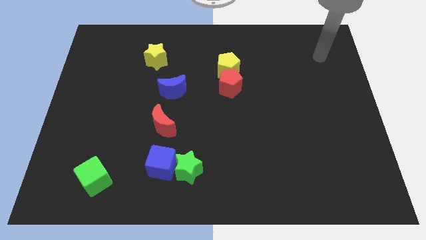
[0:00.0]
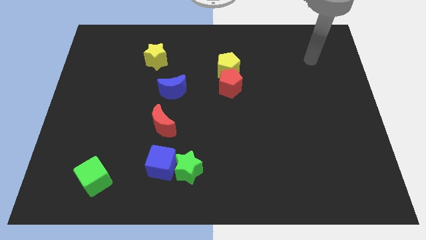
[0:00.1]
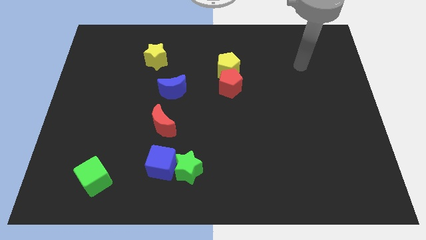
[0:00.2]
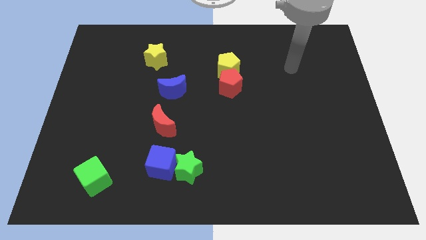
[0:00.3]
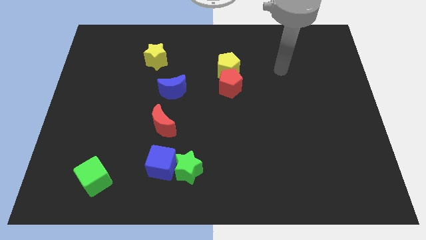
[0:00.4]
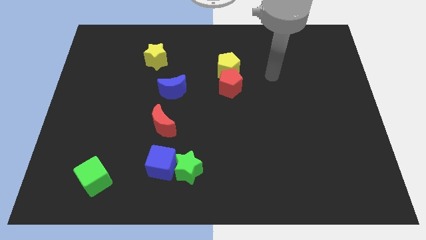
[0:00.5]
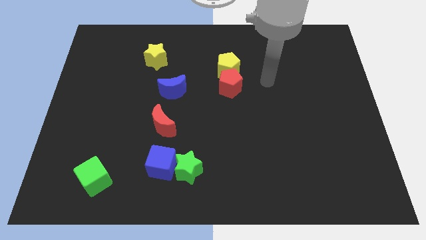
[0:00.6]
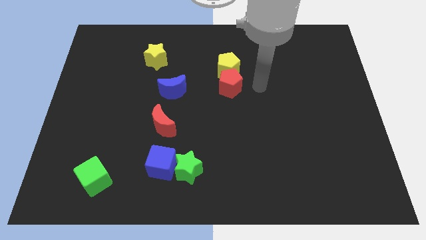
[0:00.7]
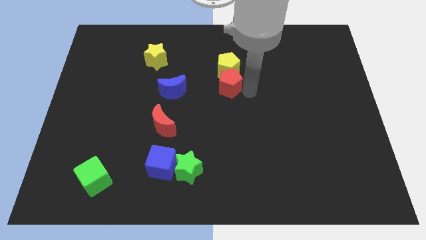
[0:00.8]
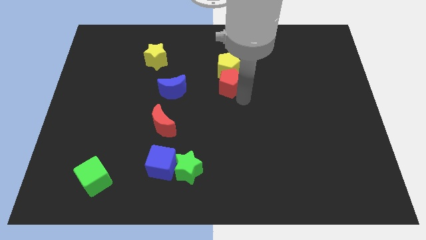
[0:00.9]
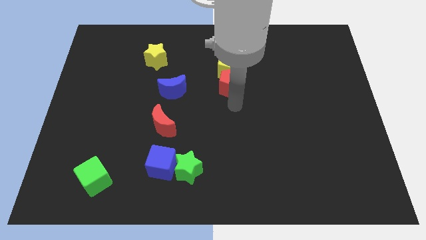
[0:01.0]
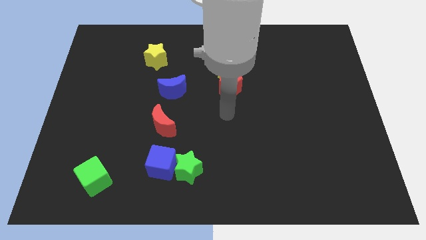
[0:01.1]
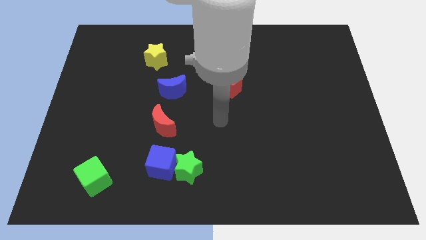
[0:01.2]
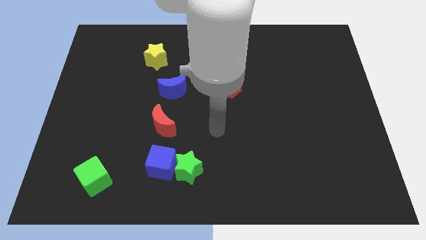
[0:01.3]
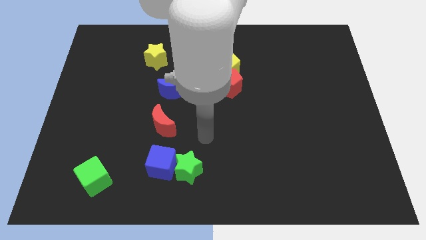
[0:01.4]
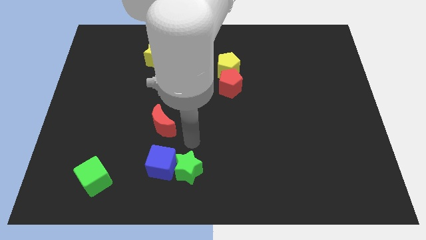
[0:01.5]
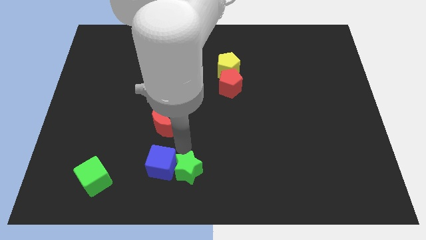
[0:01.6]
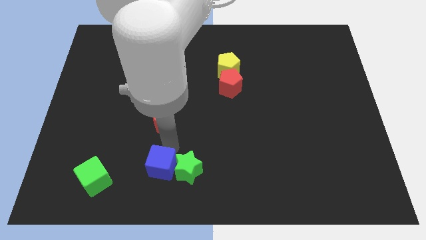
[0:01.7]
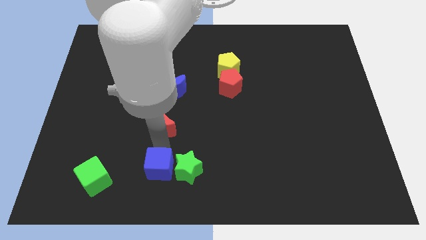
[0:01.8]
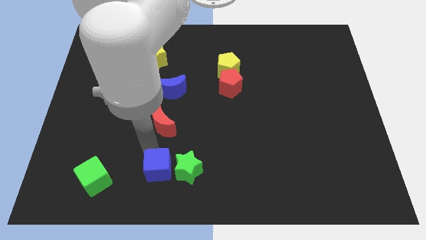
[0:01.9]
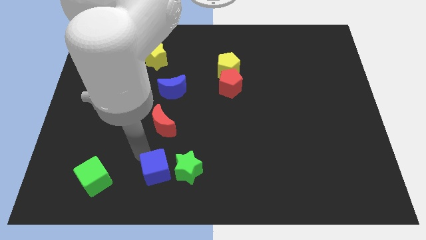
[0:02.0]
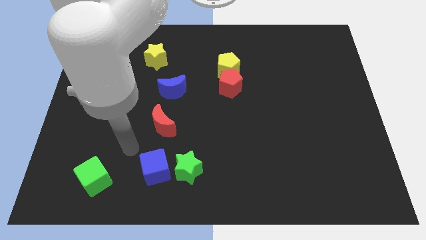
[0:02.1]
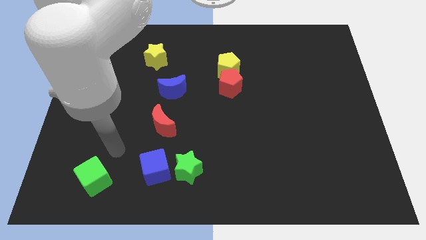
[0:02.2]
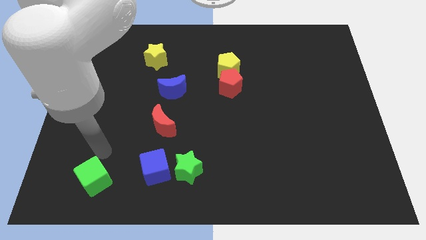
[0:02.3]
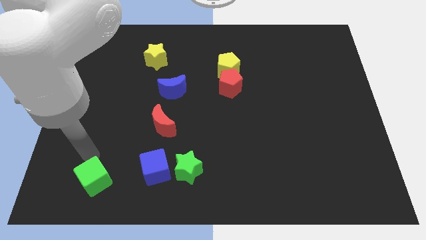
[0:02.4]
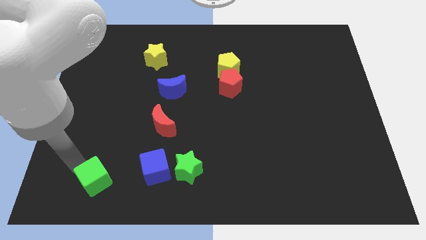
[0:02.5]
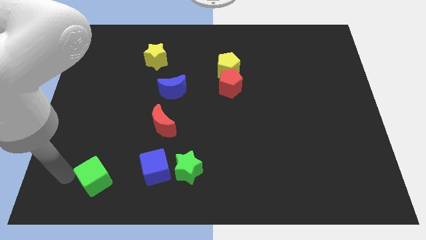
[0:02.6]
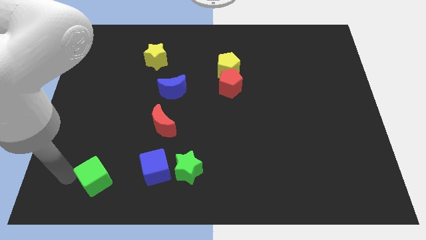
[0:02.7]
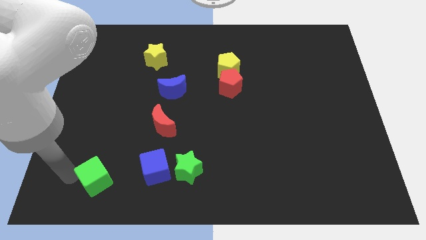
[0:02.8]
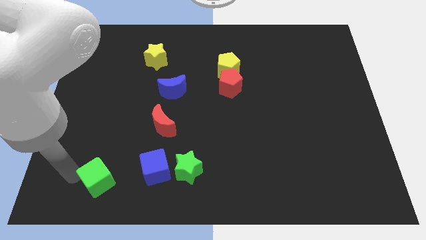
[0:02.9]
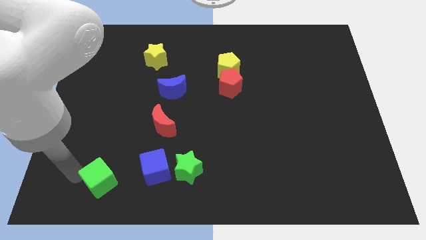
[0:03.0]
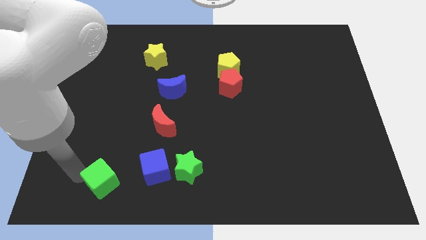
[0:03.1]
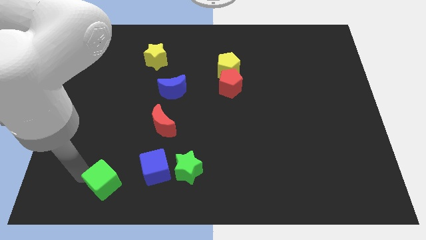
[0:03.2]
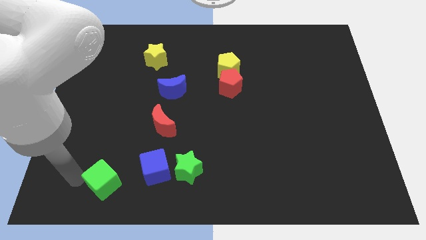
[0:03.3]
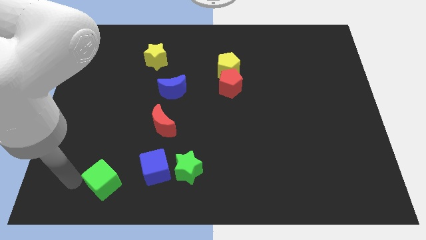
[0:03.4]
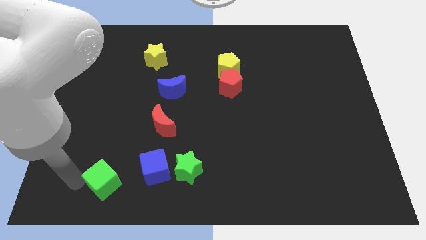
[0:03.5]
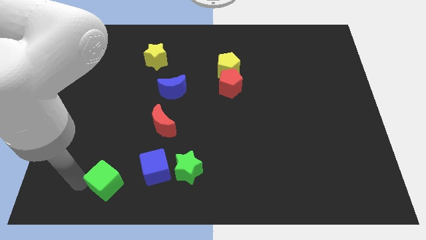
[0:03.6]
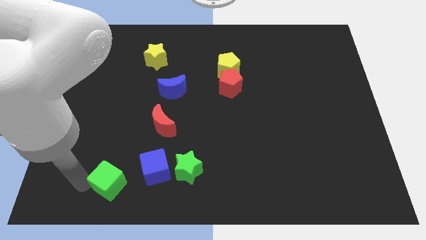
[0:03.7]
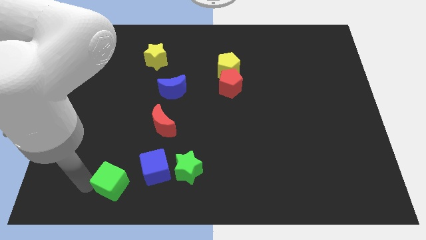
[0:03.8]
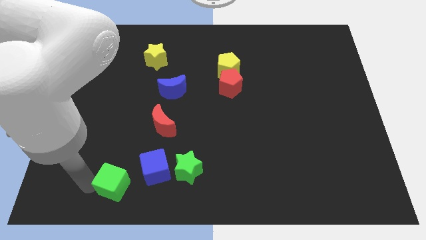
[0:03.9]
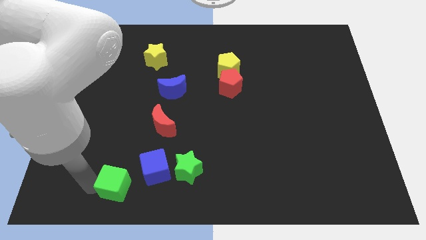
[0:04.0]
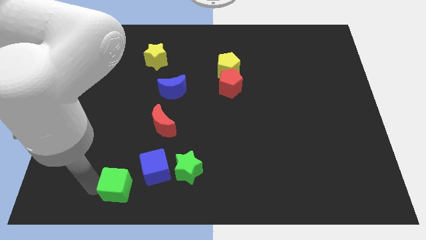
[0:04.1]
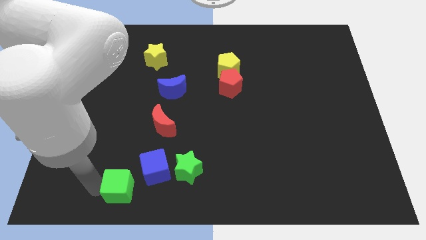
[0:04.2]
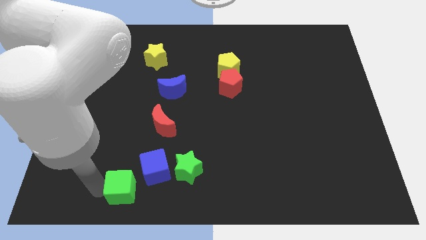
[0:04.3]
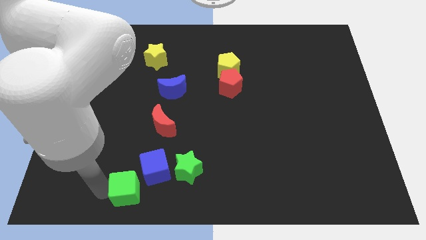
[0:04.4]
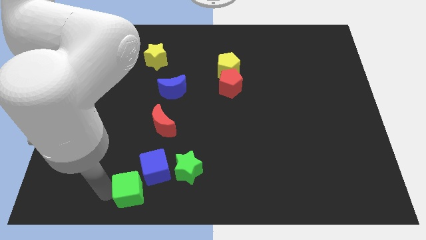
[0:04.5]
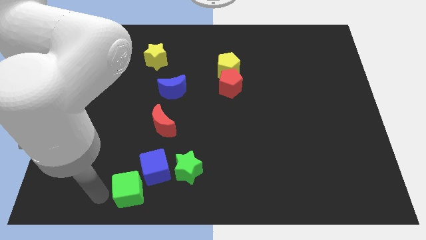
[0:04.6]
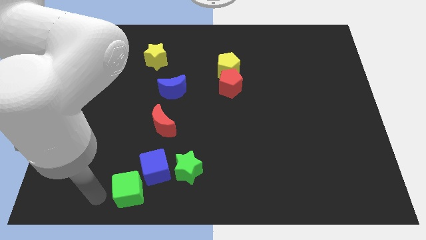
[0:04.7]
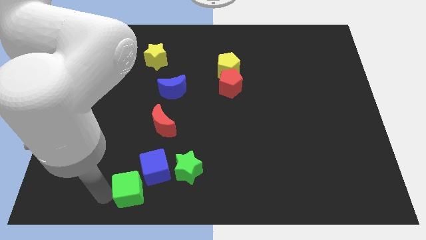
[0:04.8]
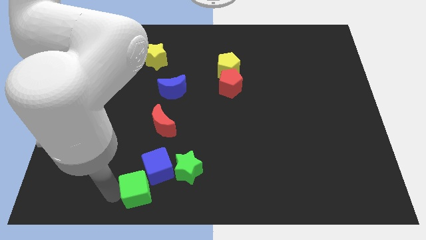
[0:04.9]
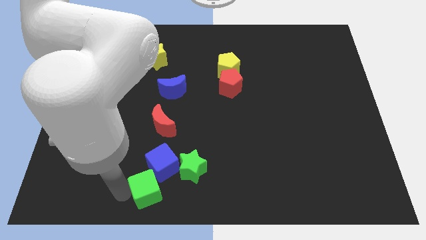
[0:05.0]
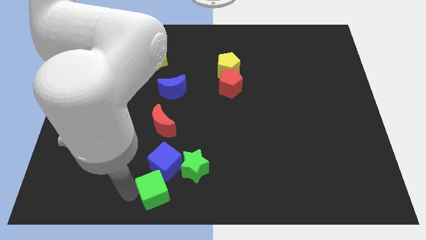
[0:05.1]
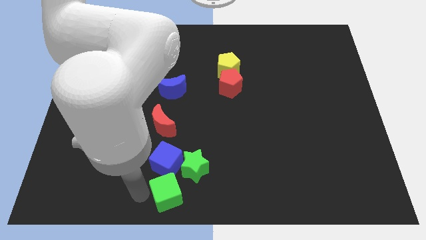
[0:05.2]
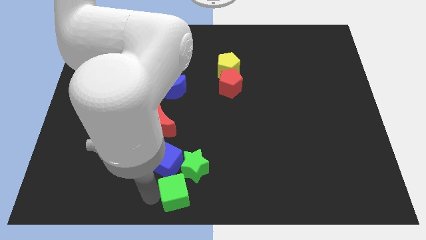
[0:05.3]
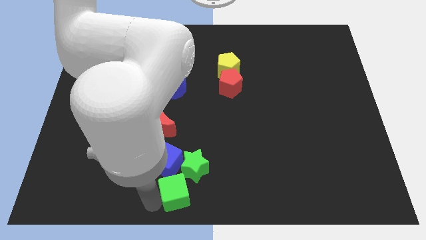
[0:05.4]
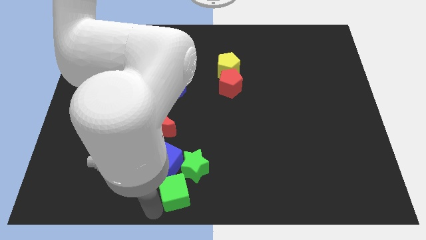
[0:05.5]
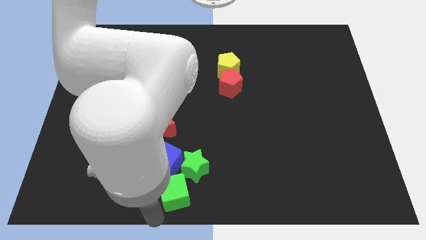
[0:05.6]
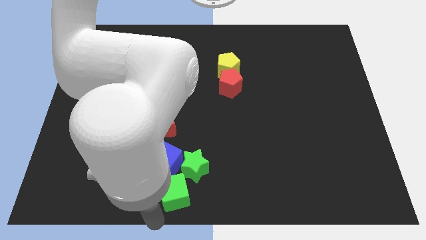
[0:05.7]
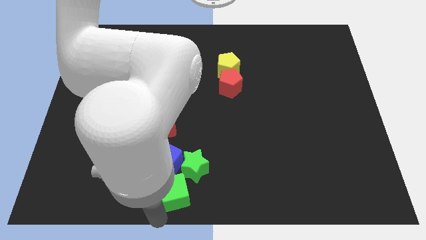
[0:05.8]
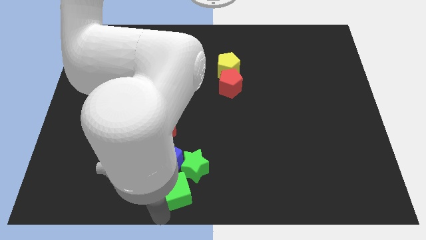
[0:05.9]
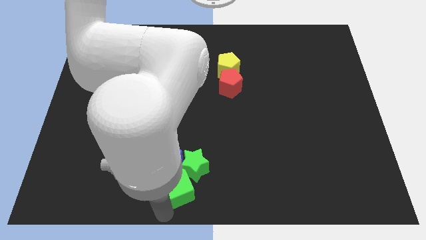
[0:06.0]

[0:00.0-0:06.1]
push the green cube towards the green star

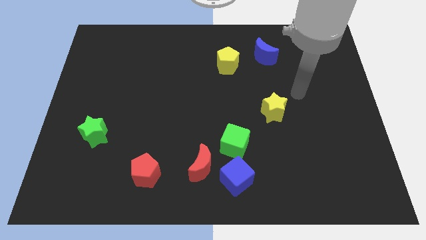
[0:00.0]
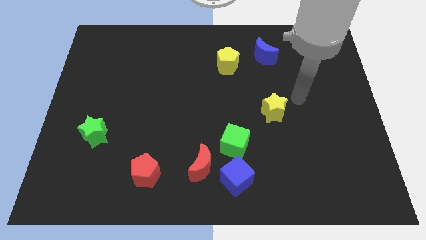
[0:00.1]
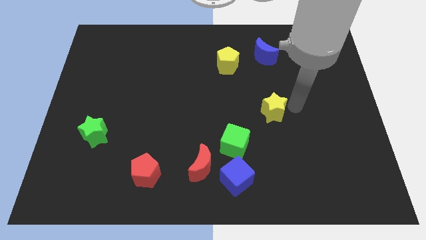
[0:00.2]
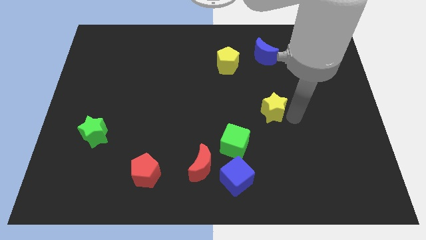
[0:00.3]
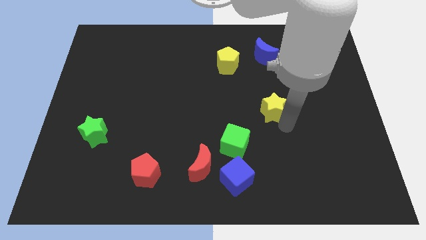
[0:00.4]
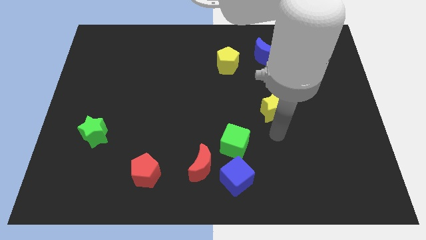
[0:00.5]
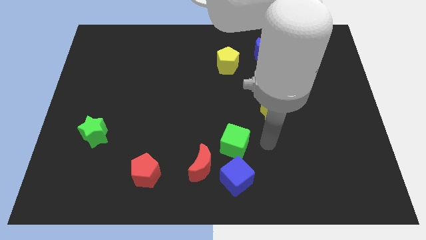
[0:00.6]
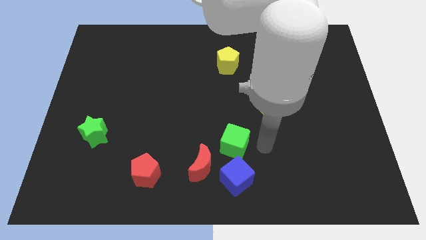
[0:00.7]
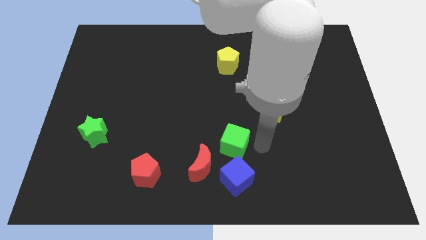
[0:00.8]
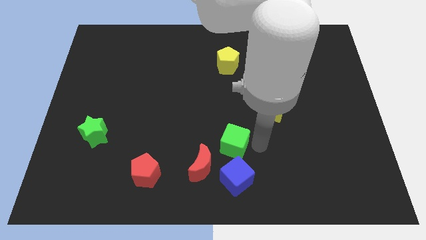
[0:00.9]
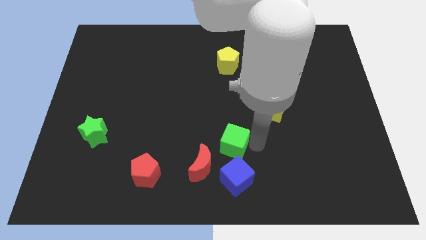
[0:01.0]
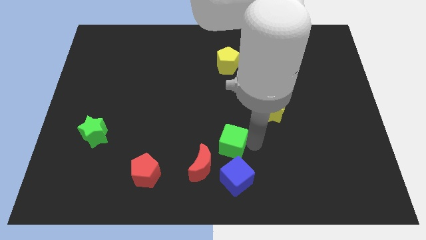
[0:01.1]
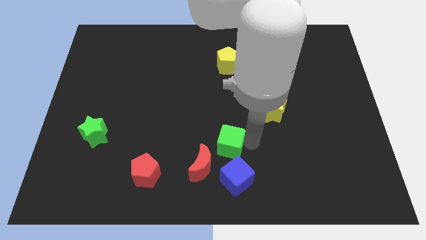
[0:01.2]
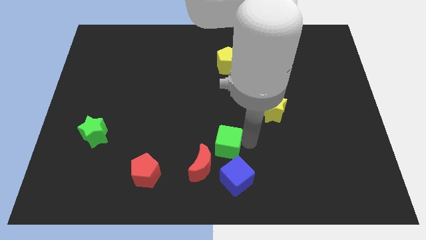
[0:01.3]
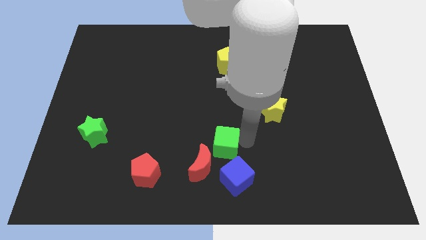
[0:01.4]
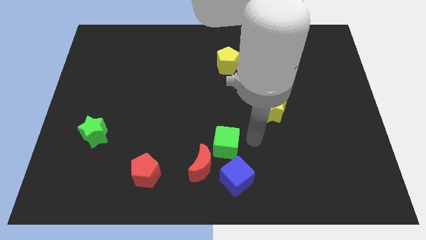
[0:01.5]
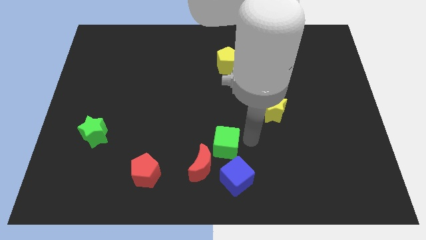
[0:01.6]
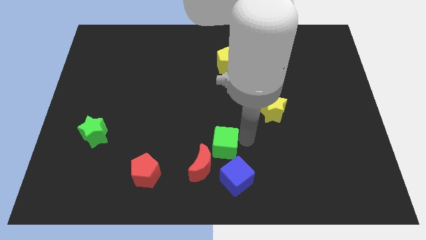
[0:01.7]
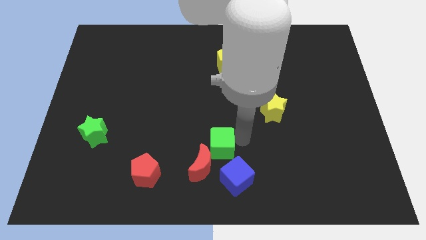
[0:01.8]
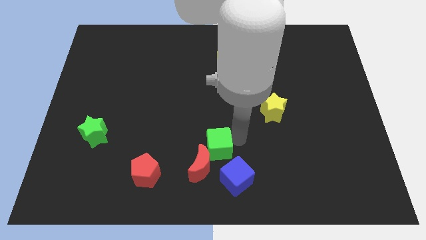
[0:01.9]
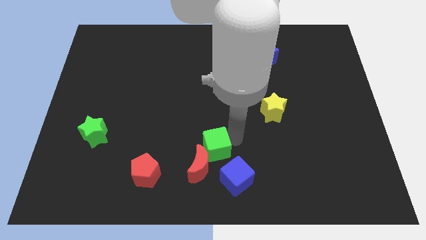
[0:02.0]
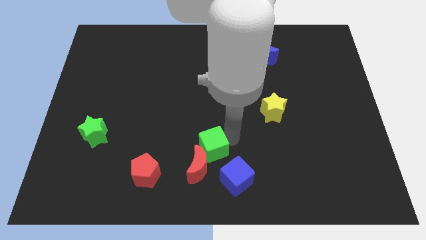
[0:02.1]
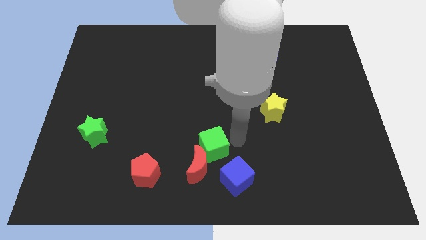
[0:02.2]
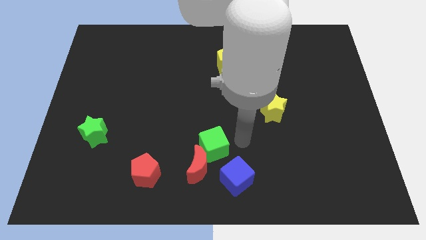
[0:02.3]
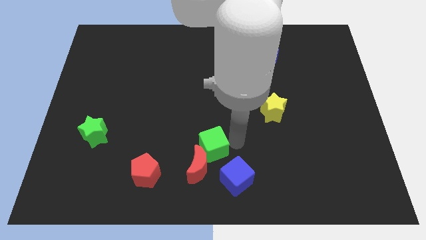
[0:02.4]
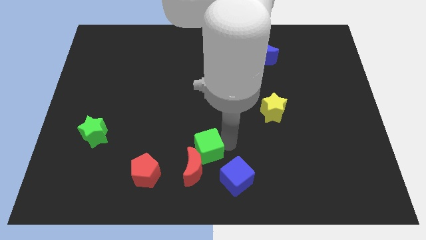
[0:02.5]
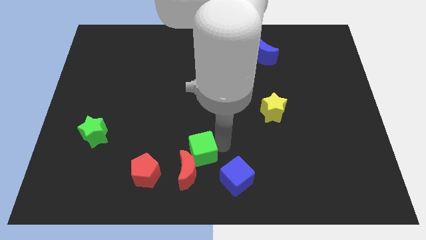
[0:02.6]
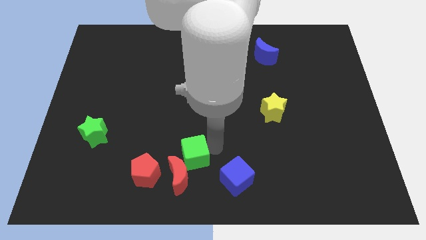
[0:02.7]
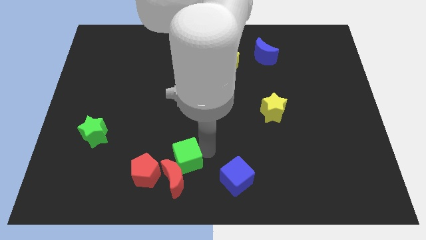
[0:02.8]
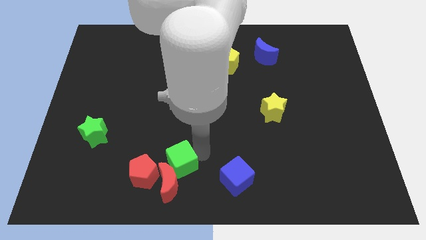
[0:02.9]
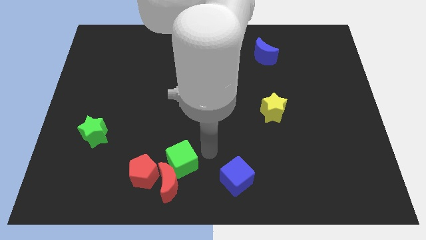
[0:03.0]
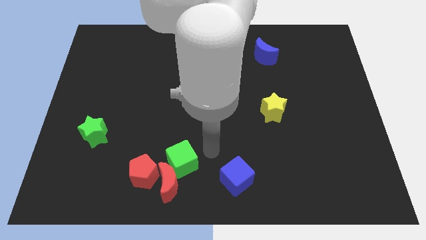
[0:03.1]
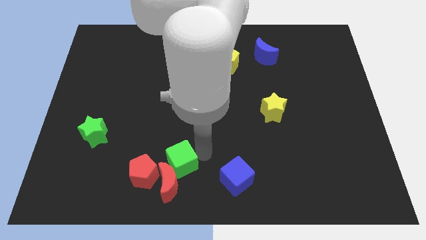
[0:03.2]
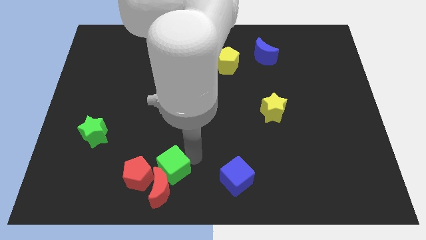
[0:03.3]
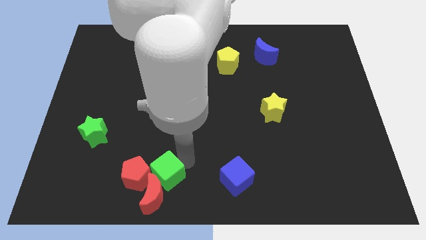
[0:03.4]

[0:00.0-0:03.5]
move the green cube to the red pentagon
